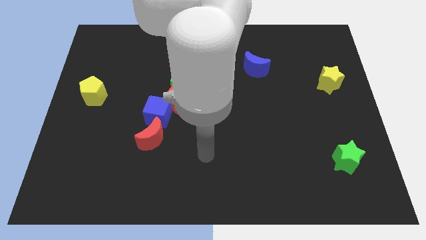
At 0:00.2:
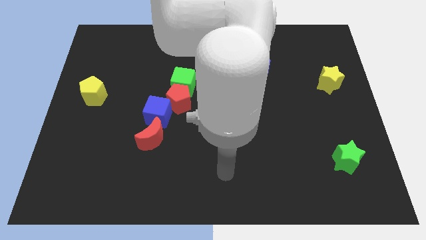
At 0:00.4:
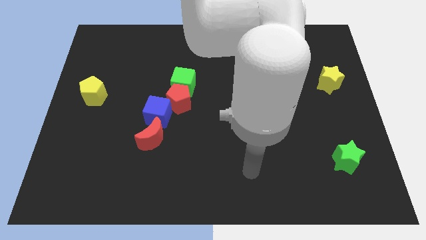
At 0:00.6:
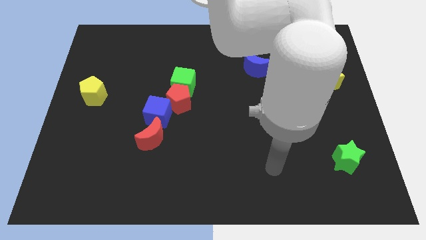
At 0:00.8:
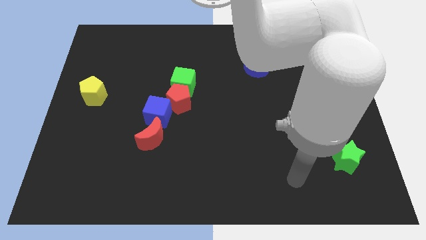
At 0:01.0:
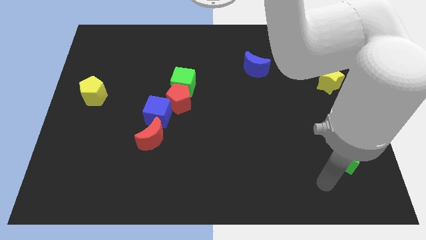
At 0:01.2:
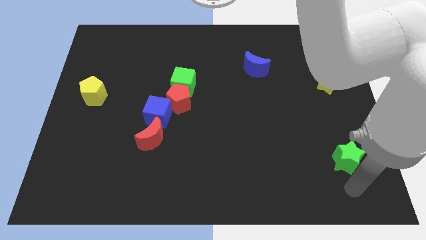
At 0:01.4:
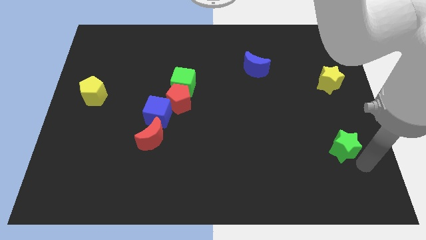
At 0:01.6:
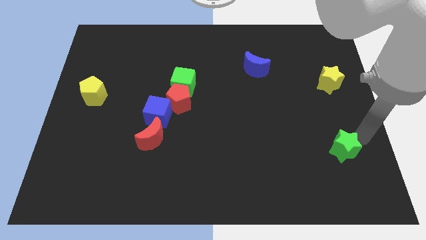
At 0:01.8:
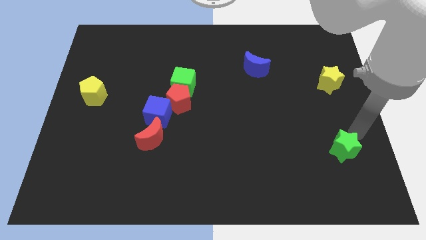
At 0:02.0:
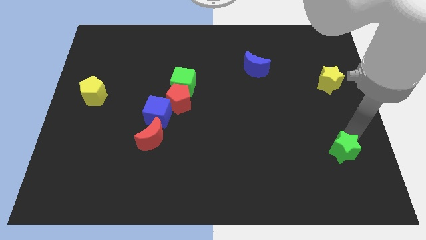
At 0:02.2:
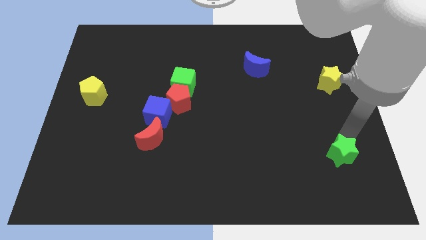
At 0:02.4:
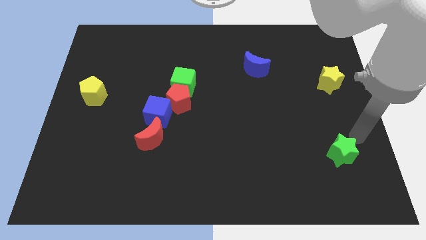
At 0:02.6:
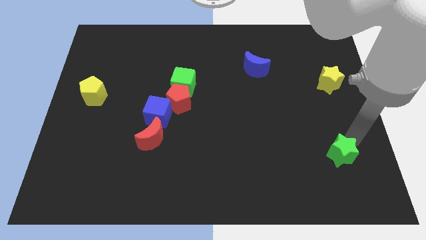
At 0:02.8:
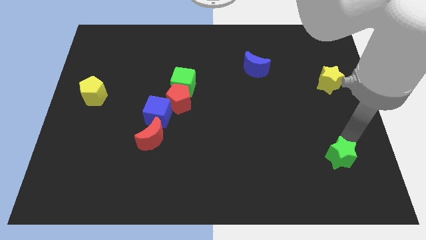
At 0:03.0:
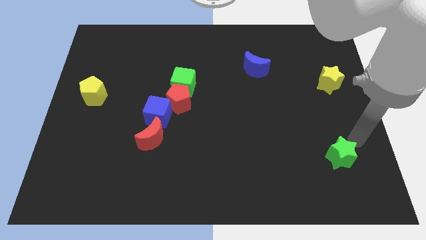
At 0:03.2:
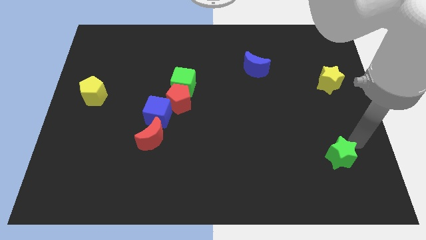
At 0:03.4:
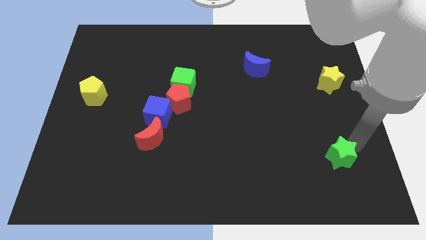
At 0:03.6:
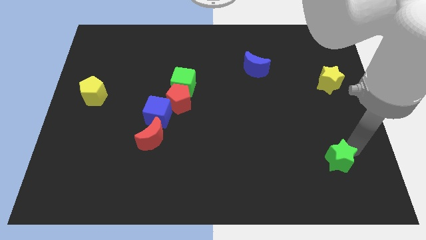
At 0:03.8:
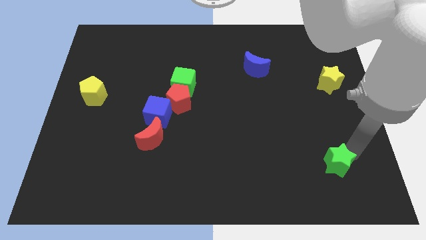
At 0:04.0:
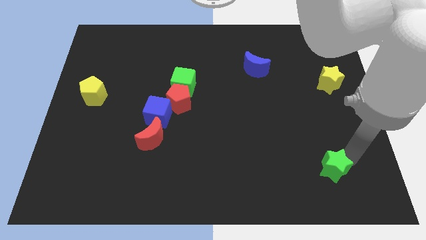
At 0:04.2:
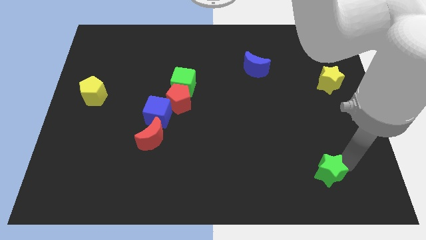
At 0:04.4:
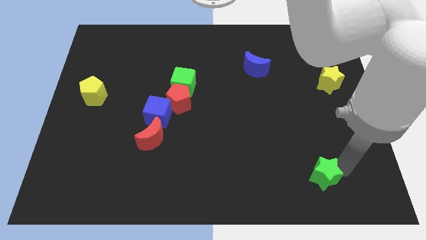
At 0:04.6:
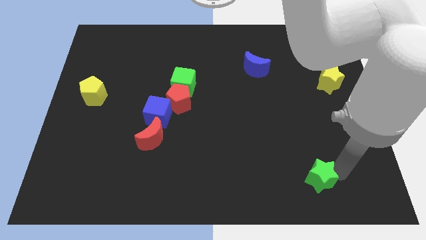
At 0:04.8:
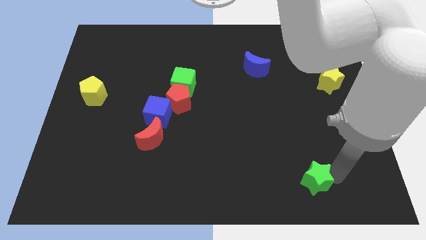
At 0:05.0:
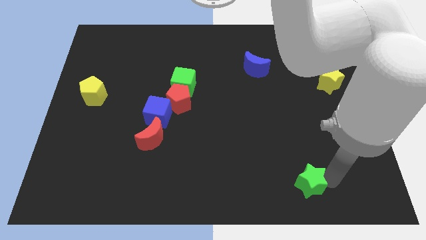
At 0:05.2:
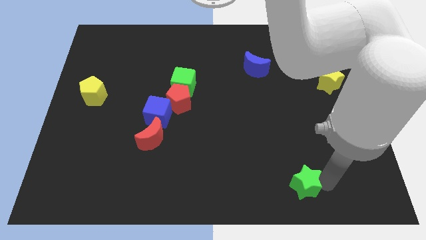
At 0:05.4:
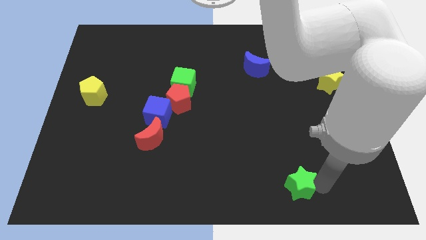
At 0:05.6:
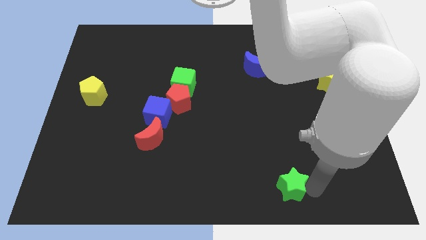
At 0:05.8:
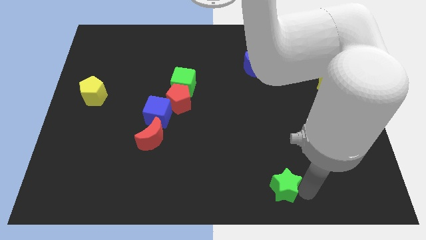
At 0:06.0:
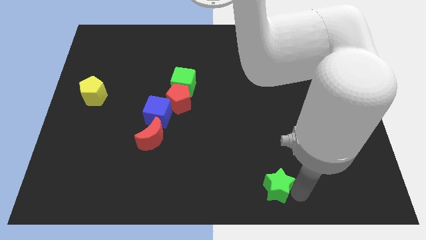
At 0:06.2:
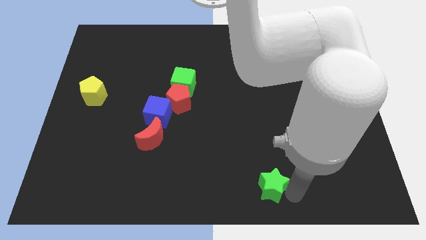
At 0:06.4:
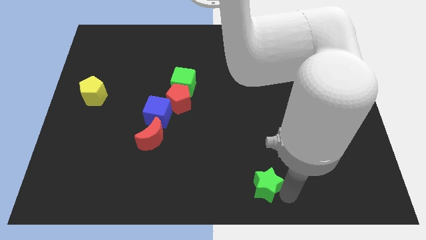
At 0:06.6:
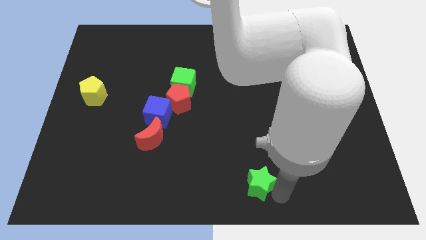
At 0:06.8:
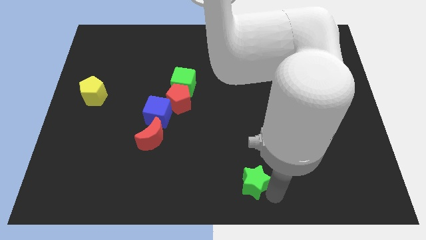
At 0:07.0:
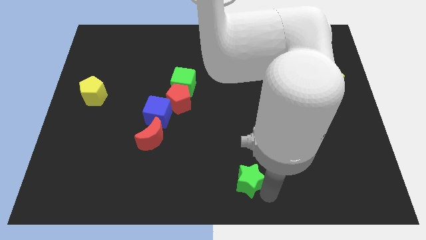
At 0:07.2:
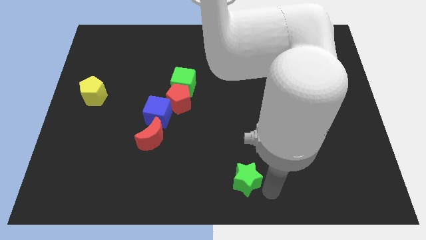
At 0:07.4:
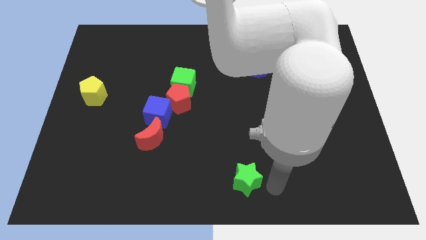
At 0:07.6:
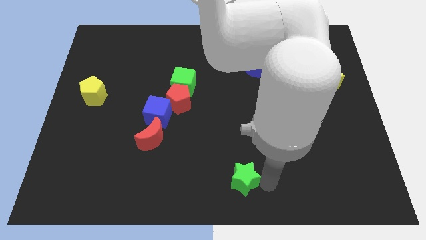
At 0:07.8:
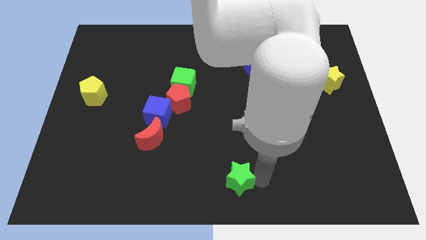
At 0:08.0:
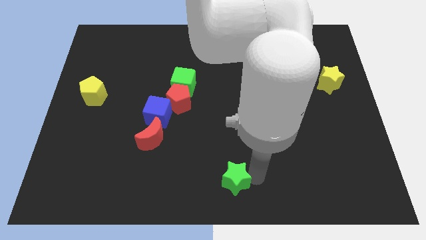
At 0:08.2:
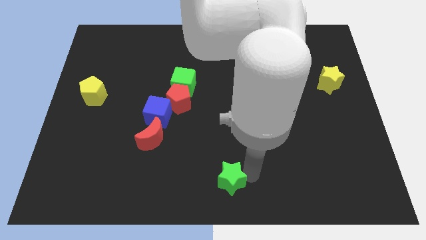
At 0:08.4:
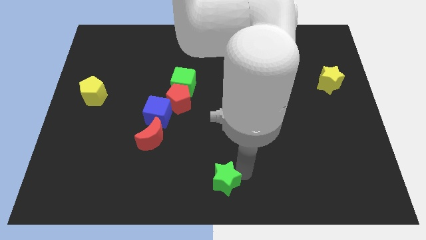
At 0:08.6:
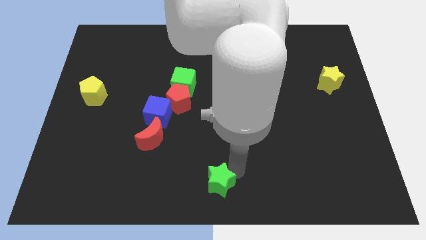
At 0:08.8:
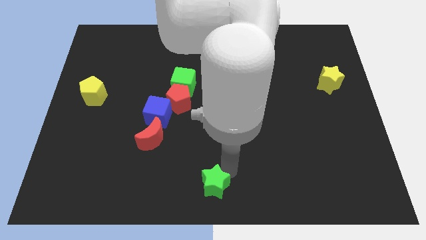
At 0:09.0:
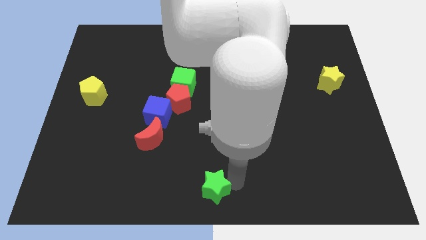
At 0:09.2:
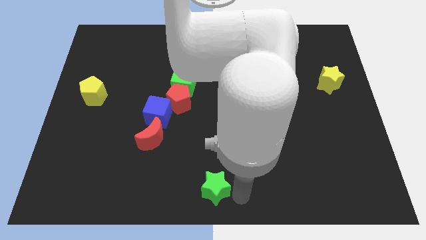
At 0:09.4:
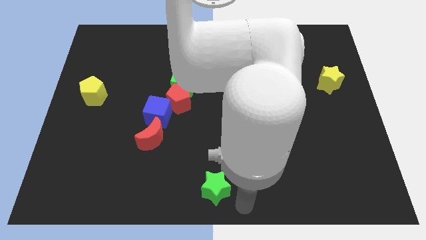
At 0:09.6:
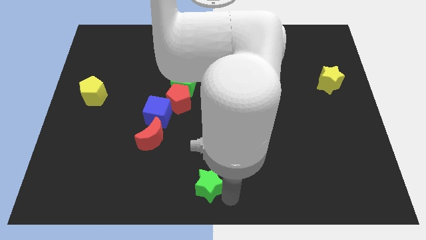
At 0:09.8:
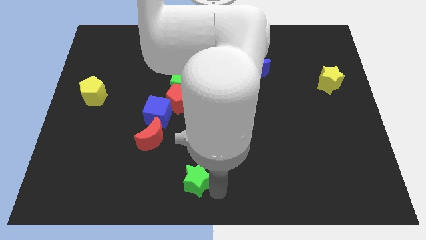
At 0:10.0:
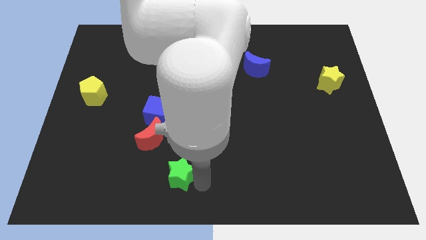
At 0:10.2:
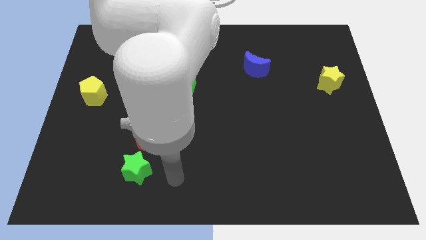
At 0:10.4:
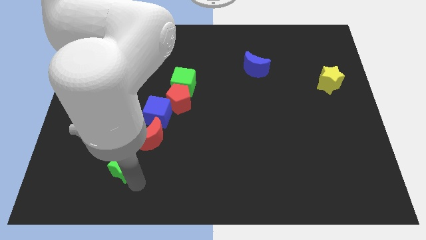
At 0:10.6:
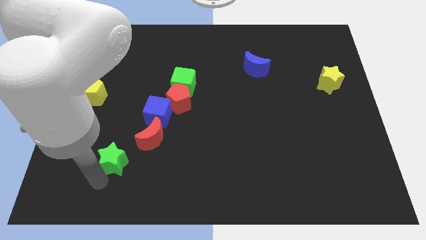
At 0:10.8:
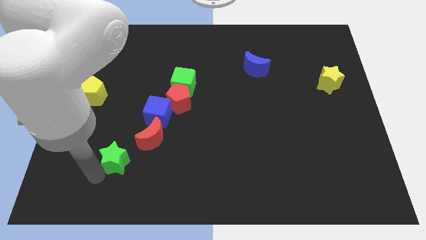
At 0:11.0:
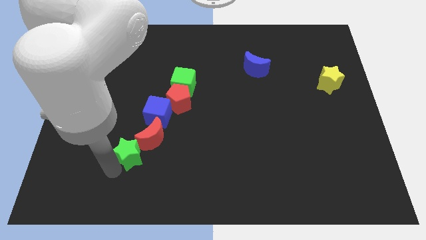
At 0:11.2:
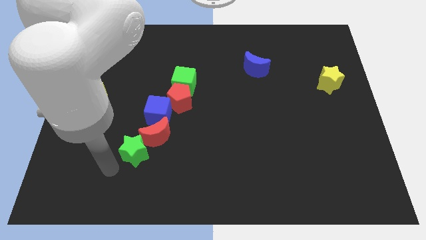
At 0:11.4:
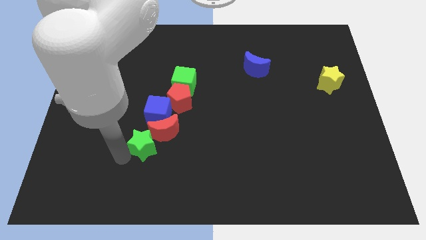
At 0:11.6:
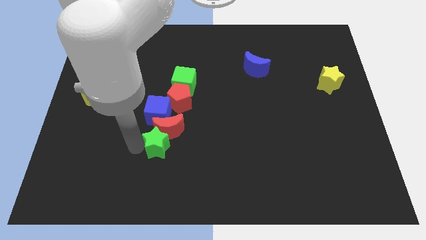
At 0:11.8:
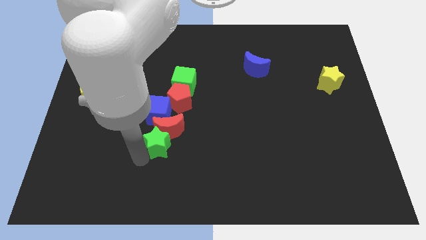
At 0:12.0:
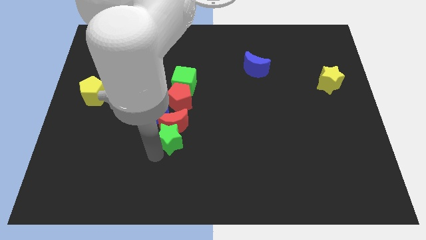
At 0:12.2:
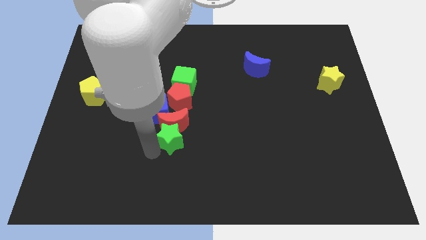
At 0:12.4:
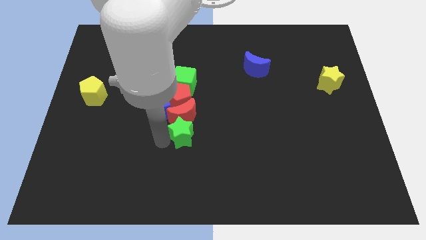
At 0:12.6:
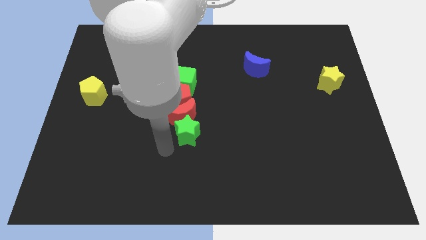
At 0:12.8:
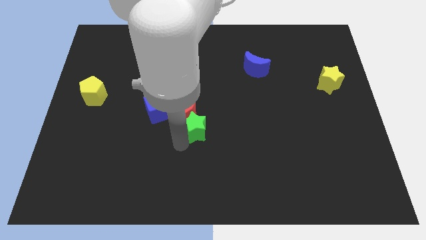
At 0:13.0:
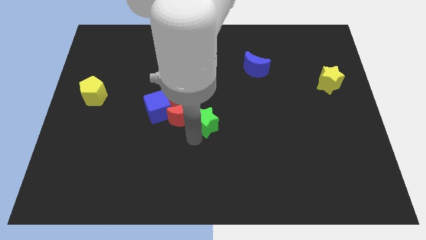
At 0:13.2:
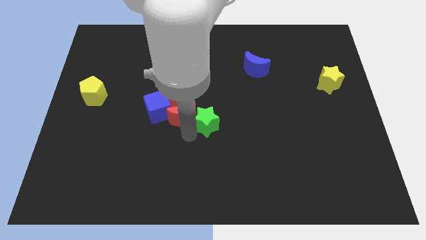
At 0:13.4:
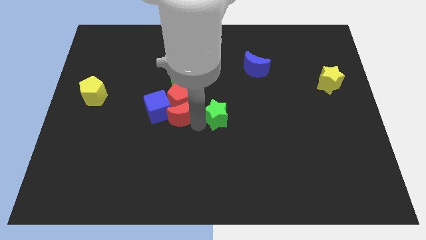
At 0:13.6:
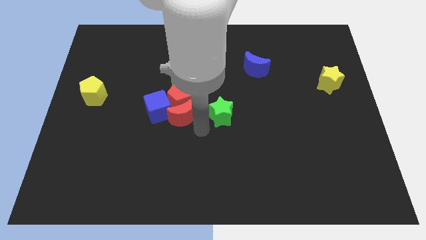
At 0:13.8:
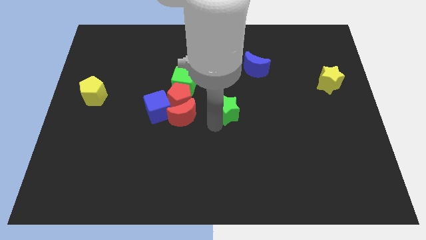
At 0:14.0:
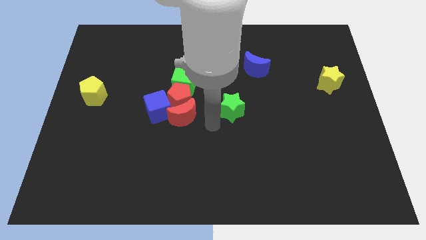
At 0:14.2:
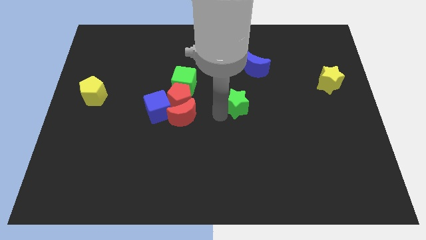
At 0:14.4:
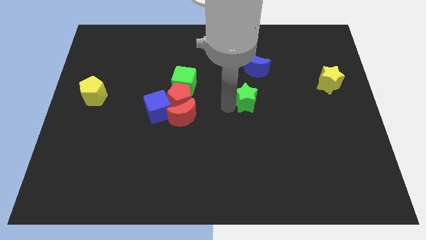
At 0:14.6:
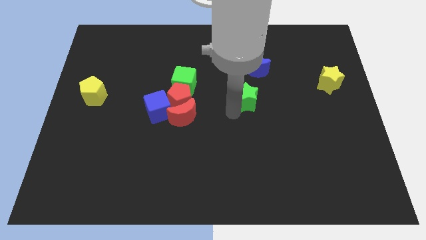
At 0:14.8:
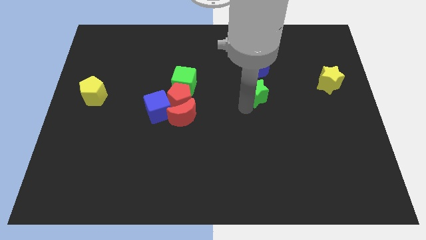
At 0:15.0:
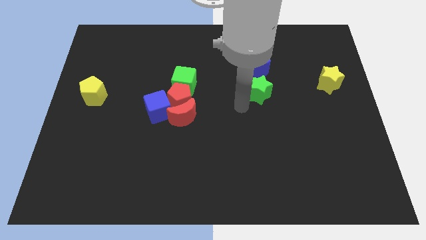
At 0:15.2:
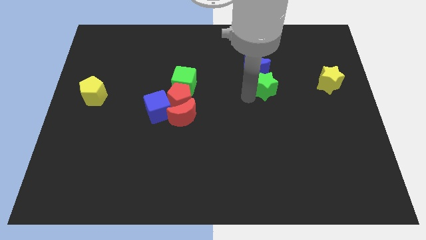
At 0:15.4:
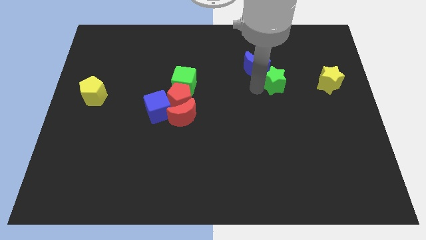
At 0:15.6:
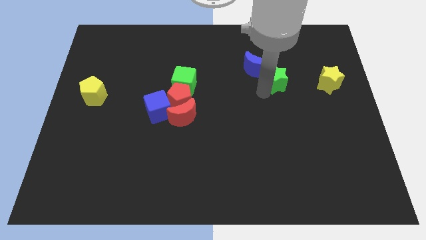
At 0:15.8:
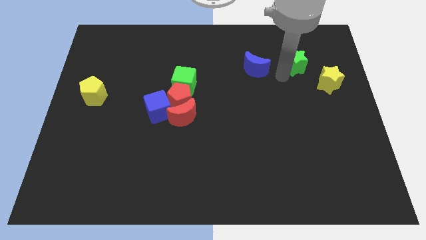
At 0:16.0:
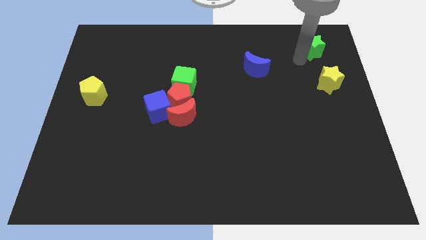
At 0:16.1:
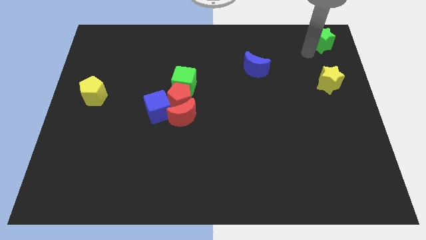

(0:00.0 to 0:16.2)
move the green star to the top right of the board
